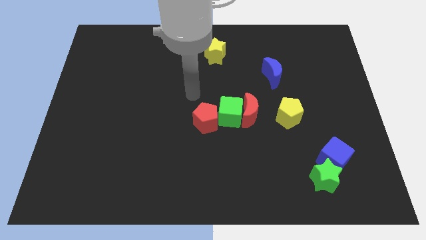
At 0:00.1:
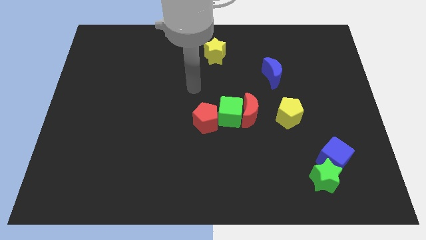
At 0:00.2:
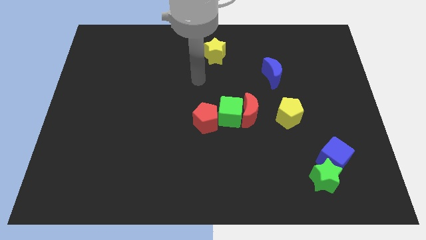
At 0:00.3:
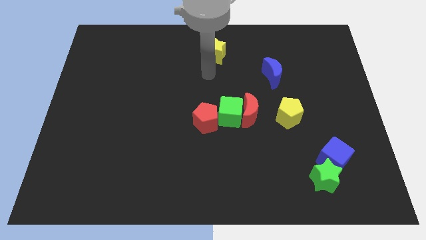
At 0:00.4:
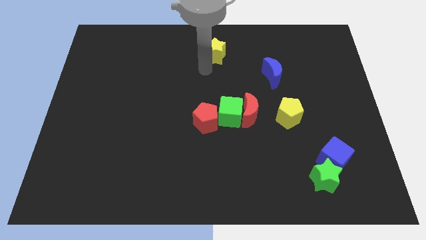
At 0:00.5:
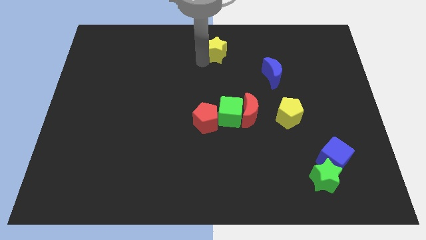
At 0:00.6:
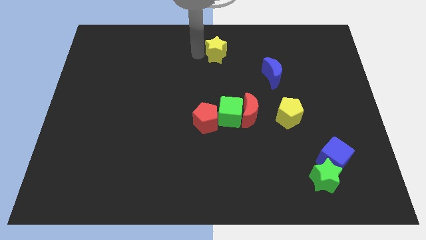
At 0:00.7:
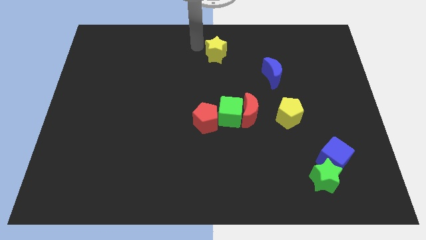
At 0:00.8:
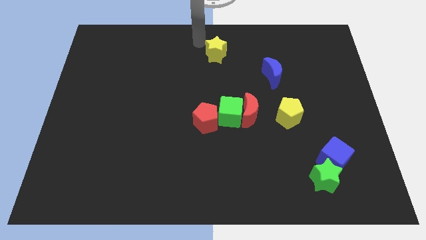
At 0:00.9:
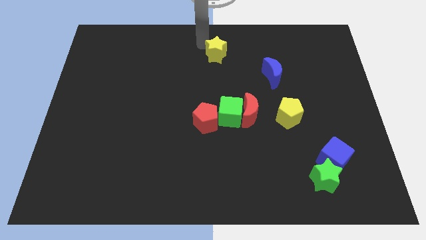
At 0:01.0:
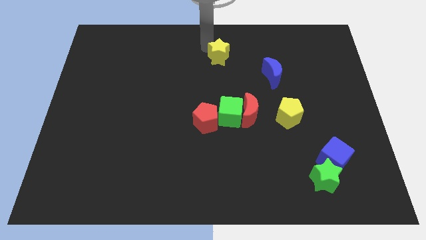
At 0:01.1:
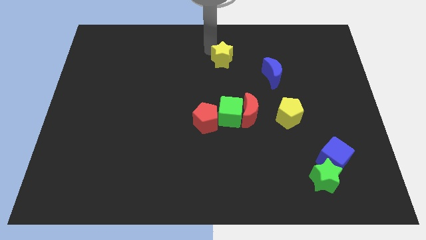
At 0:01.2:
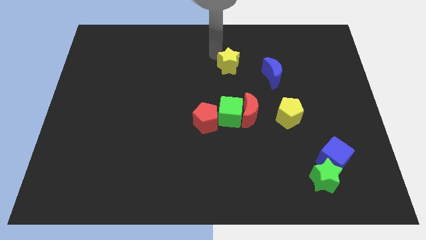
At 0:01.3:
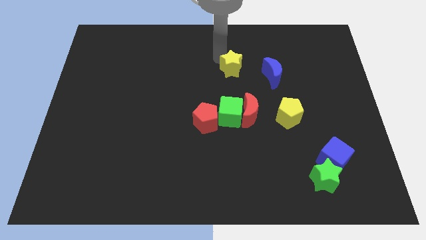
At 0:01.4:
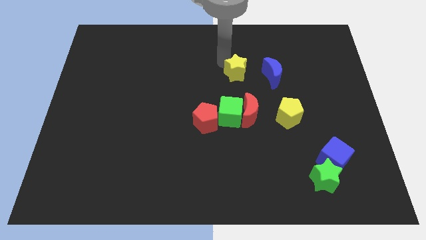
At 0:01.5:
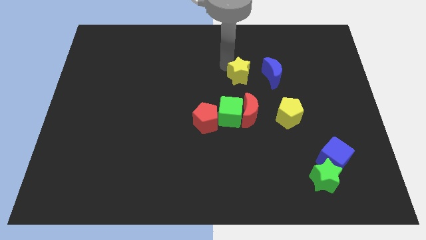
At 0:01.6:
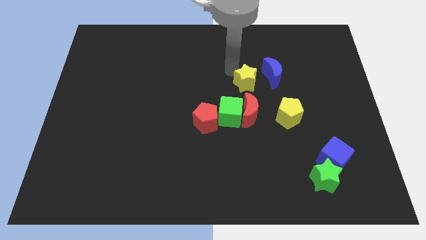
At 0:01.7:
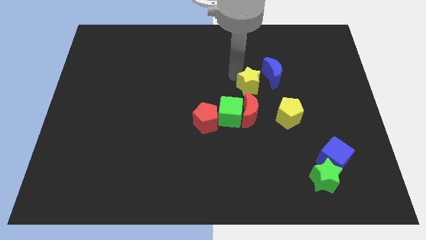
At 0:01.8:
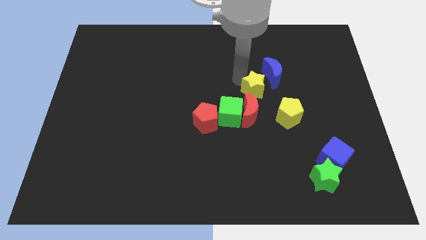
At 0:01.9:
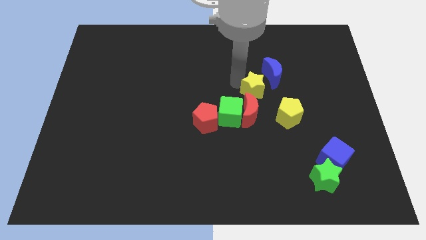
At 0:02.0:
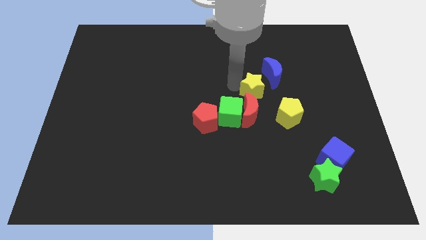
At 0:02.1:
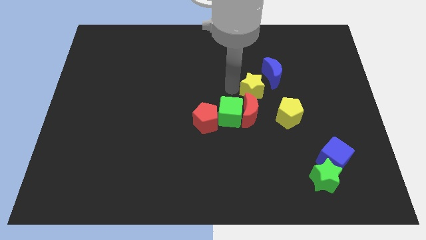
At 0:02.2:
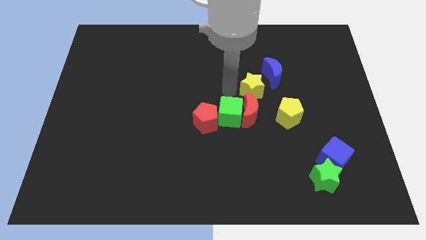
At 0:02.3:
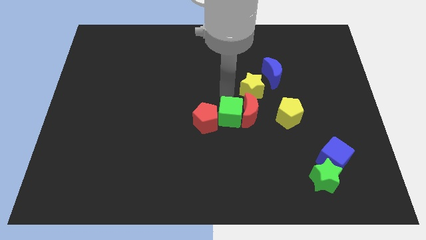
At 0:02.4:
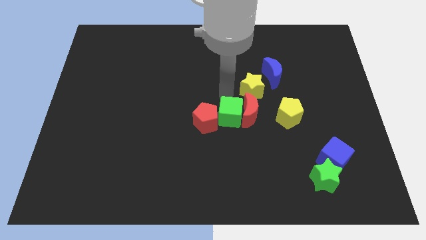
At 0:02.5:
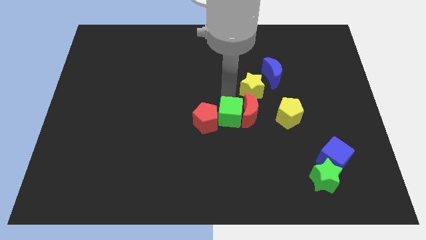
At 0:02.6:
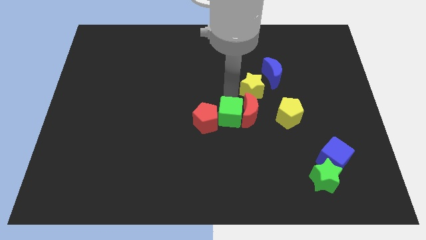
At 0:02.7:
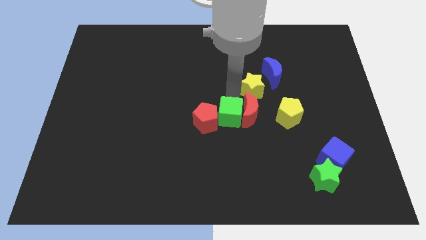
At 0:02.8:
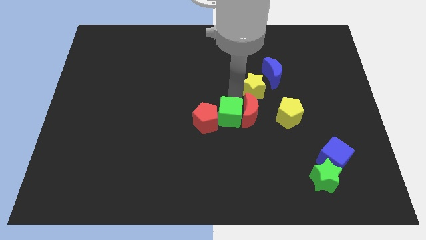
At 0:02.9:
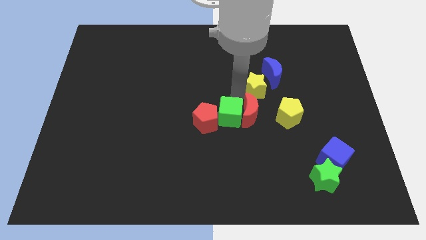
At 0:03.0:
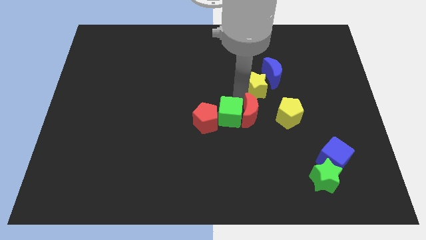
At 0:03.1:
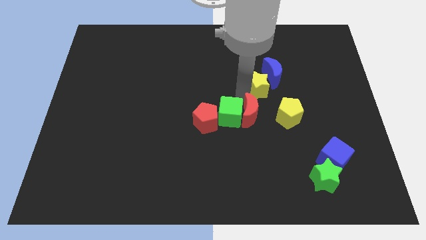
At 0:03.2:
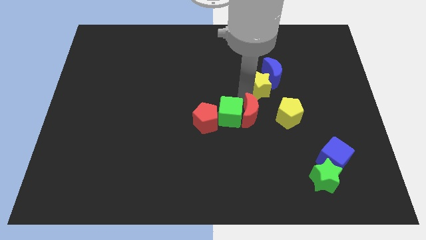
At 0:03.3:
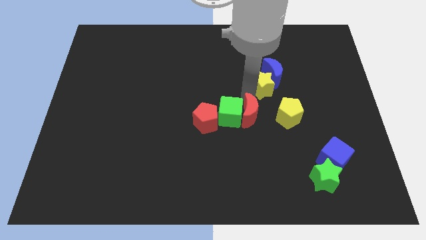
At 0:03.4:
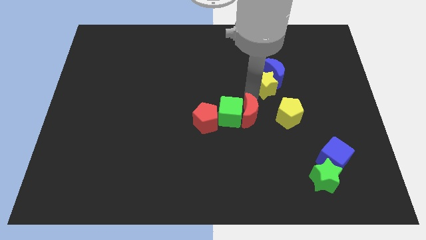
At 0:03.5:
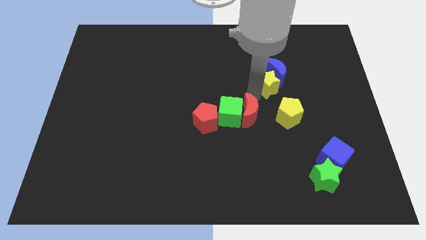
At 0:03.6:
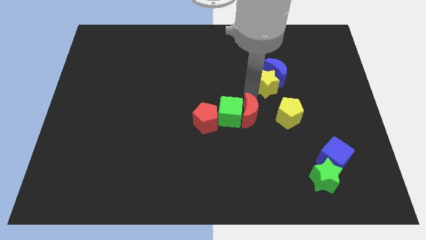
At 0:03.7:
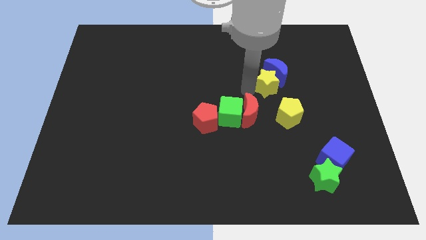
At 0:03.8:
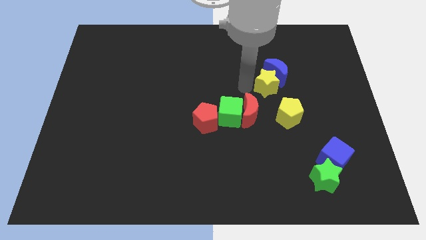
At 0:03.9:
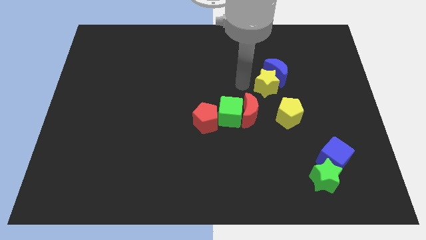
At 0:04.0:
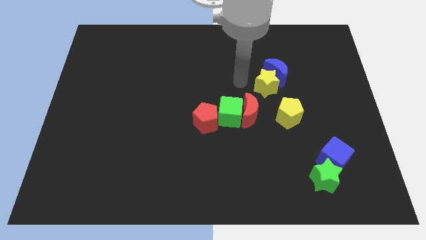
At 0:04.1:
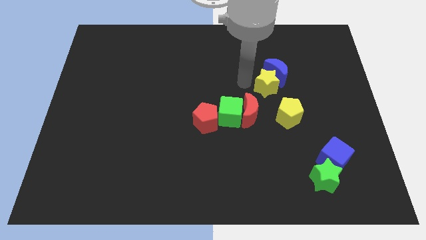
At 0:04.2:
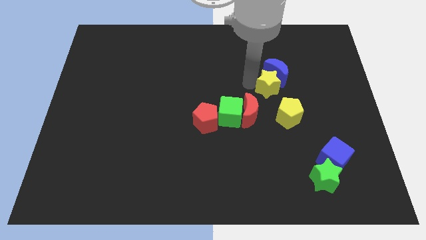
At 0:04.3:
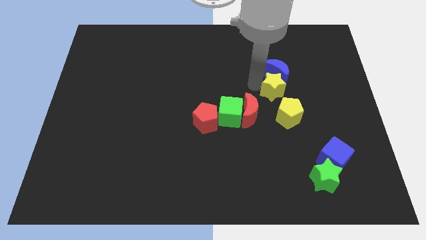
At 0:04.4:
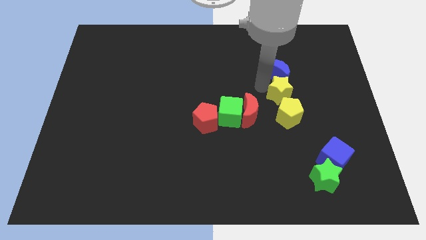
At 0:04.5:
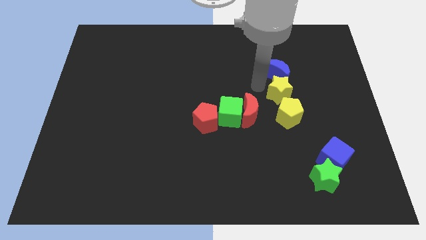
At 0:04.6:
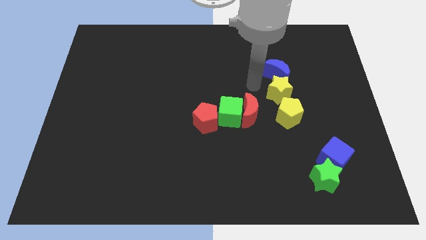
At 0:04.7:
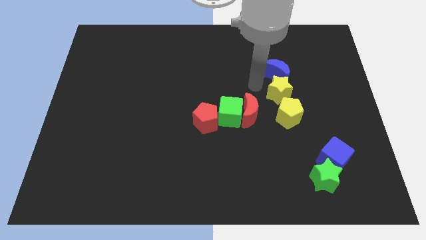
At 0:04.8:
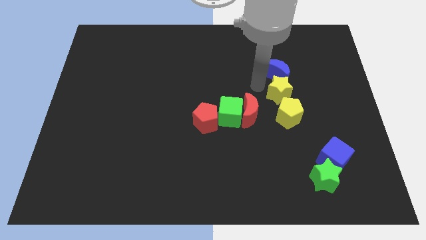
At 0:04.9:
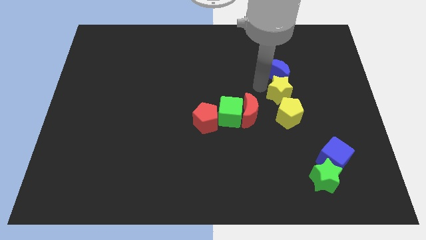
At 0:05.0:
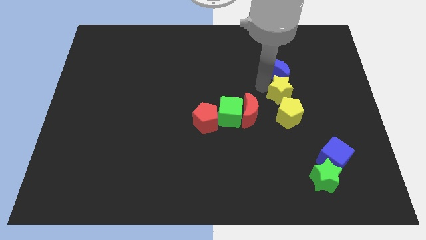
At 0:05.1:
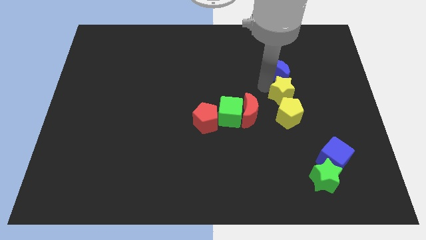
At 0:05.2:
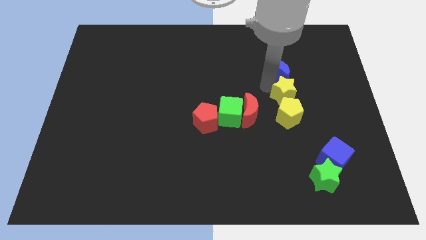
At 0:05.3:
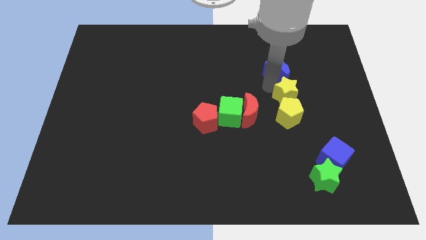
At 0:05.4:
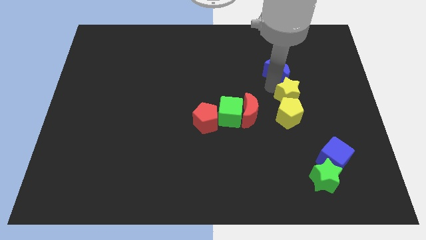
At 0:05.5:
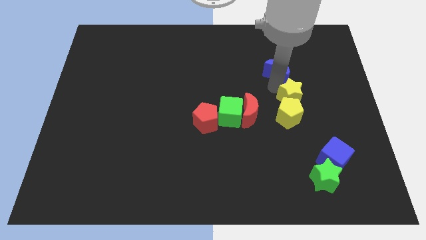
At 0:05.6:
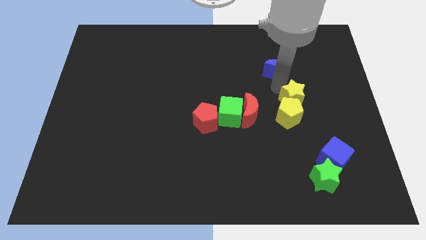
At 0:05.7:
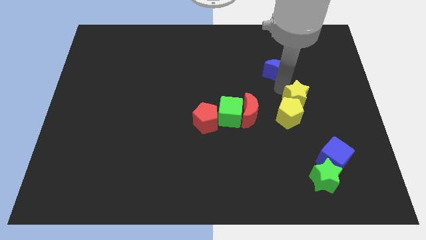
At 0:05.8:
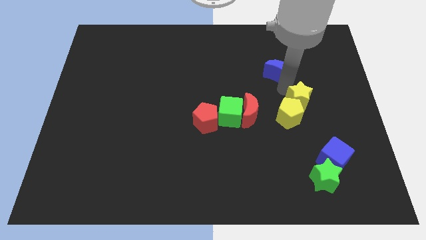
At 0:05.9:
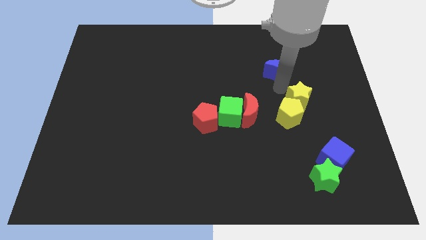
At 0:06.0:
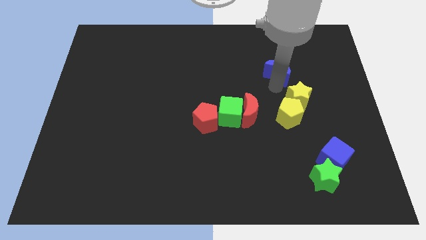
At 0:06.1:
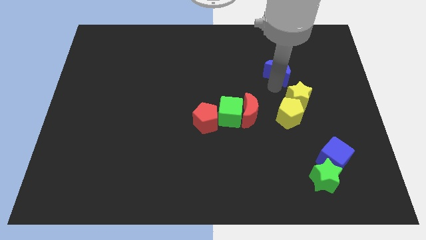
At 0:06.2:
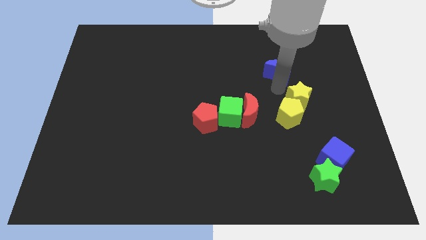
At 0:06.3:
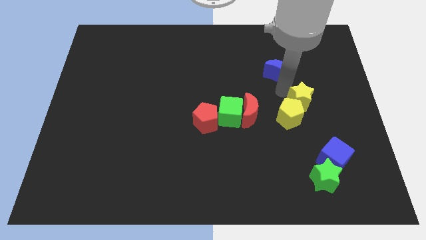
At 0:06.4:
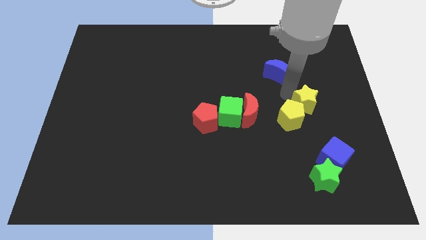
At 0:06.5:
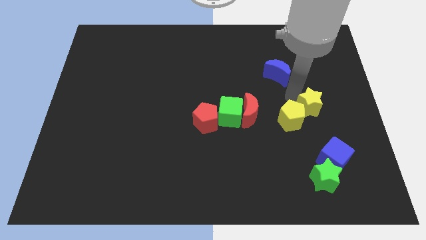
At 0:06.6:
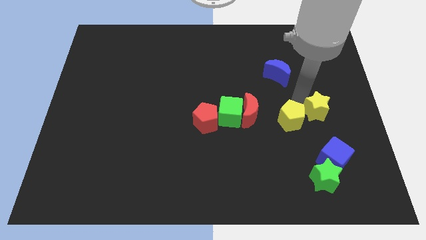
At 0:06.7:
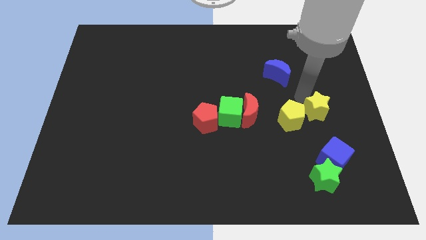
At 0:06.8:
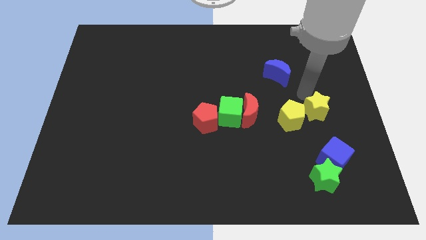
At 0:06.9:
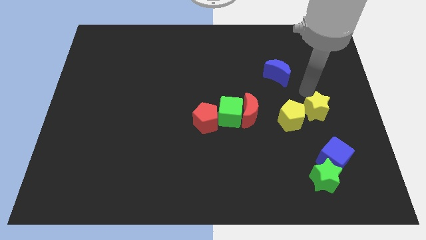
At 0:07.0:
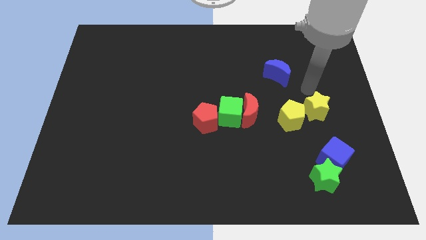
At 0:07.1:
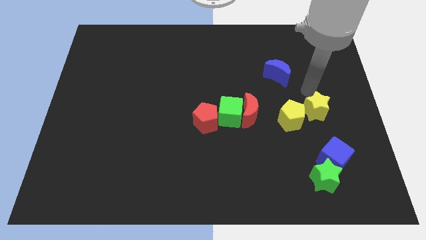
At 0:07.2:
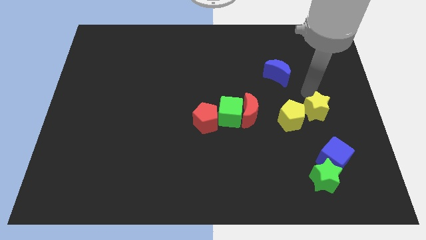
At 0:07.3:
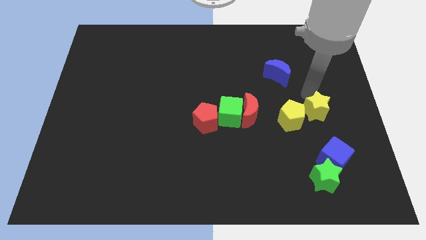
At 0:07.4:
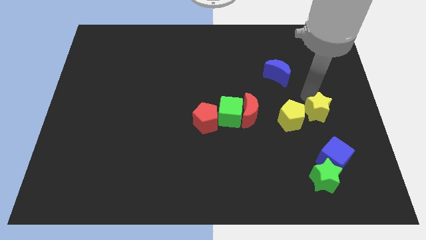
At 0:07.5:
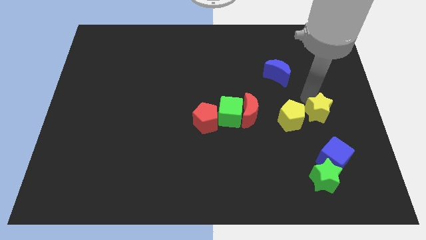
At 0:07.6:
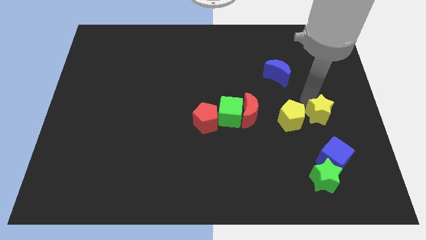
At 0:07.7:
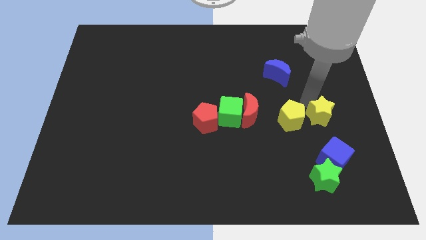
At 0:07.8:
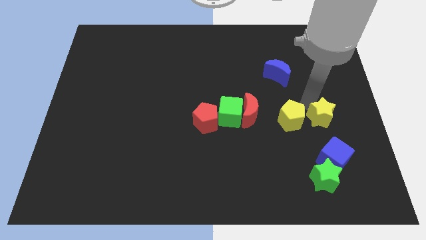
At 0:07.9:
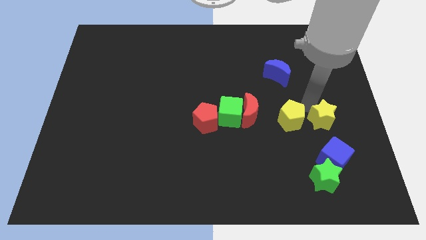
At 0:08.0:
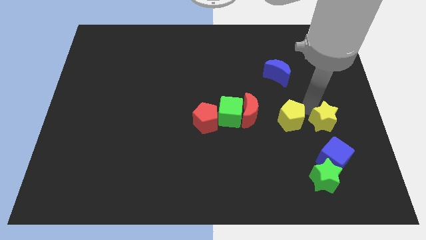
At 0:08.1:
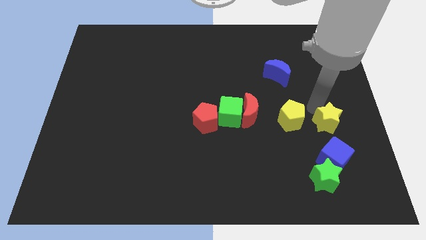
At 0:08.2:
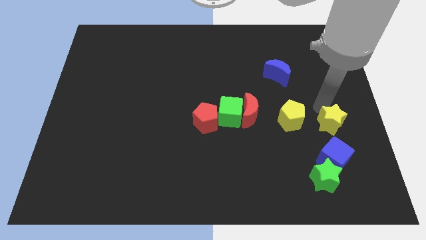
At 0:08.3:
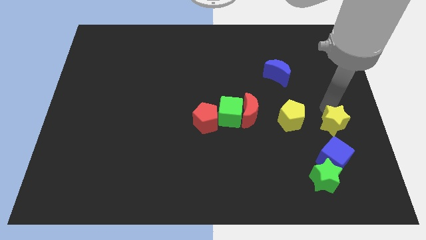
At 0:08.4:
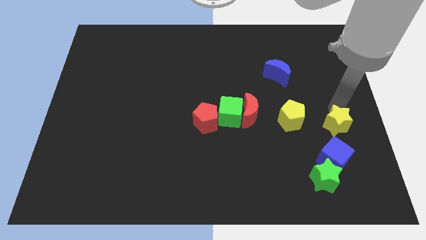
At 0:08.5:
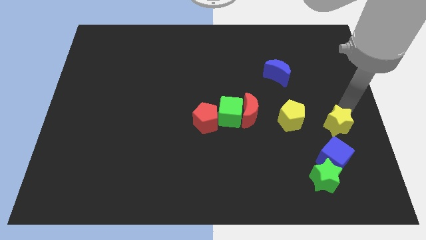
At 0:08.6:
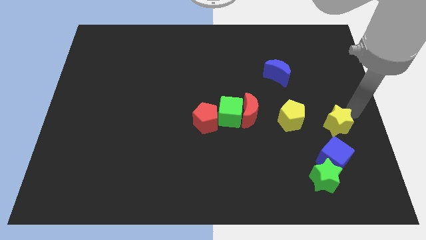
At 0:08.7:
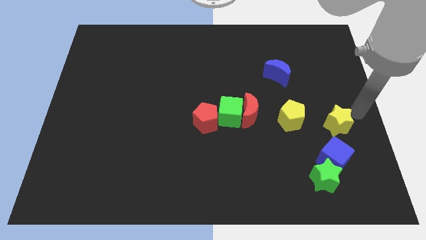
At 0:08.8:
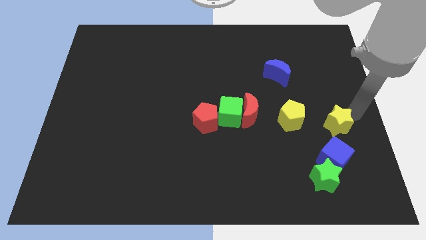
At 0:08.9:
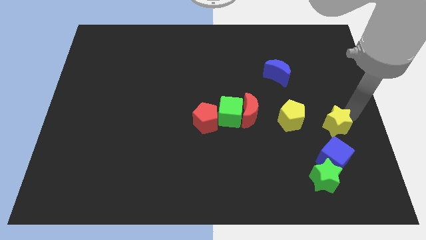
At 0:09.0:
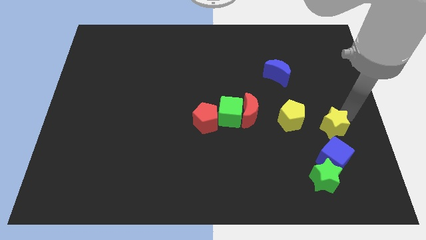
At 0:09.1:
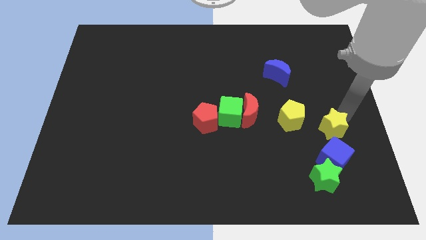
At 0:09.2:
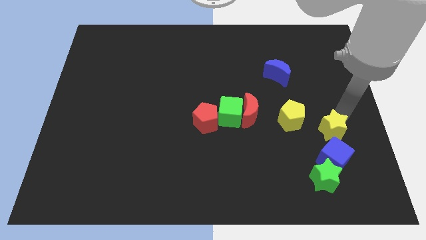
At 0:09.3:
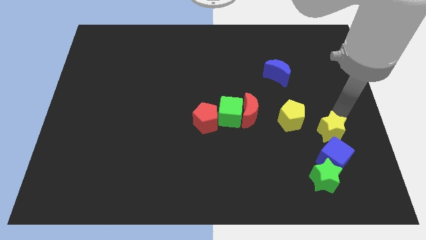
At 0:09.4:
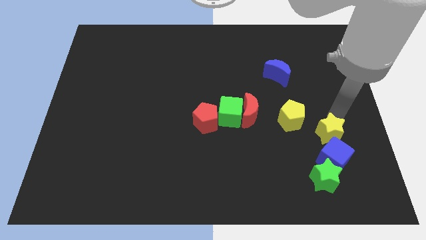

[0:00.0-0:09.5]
move the yellow star diagonally up and to the left of the blue cube
